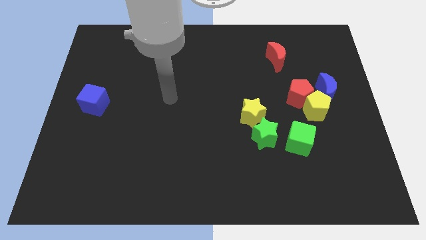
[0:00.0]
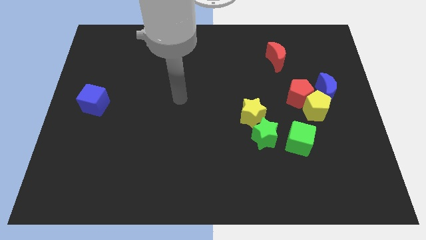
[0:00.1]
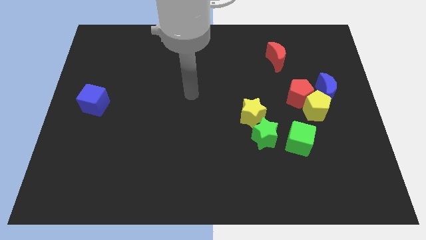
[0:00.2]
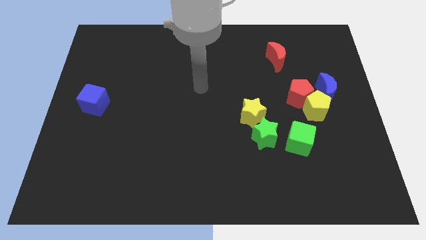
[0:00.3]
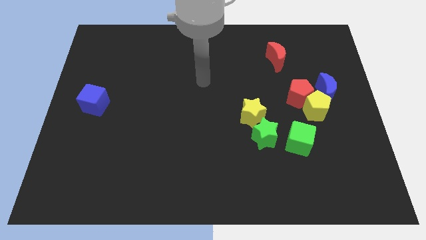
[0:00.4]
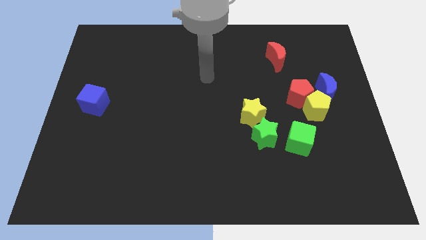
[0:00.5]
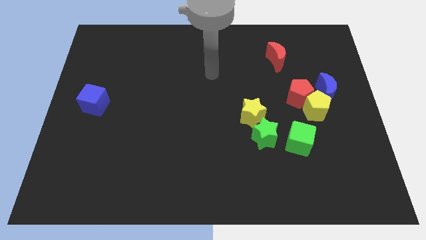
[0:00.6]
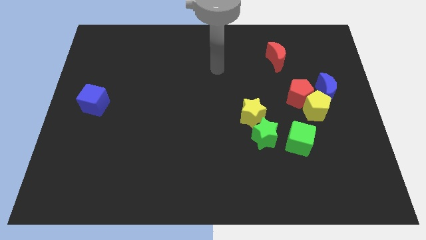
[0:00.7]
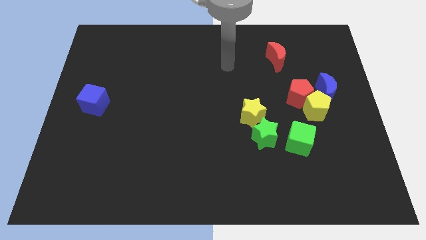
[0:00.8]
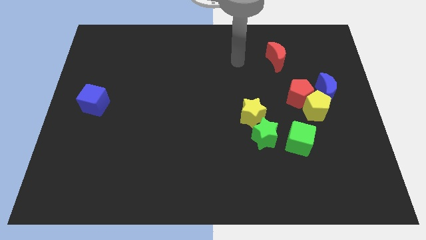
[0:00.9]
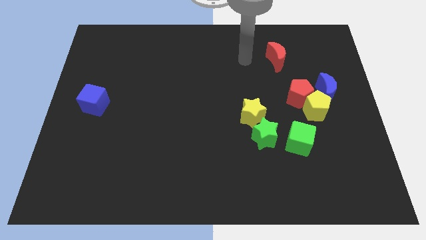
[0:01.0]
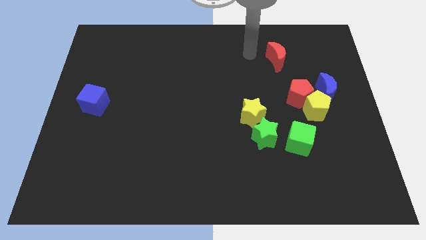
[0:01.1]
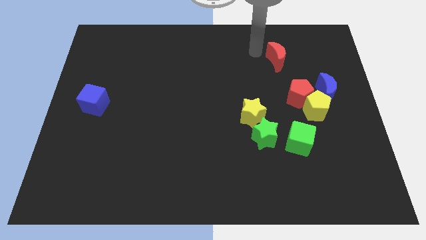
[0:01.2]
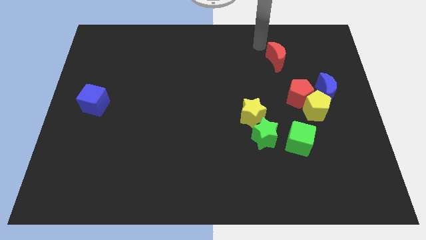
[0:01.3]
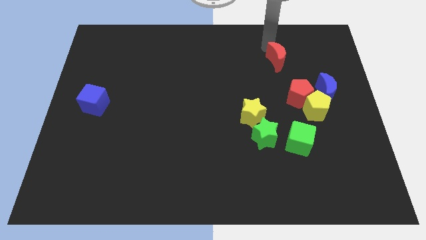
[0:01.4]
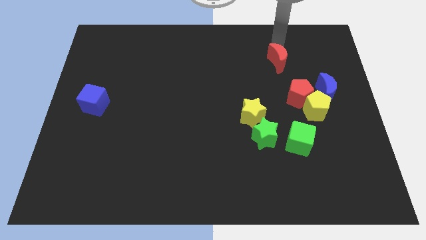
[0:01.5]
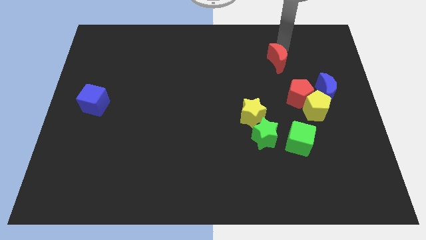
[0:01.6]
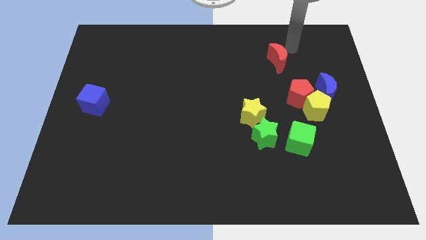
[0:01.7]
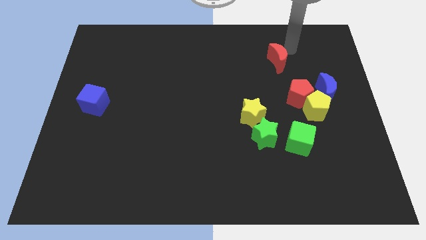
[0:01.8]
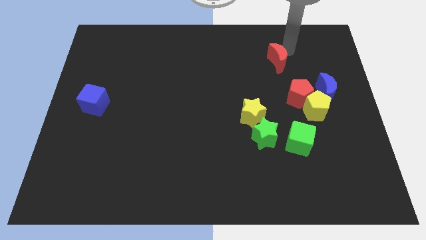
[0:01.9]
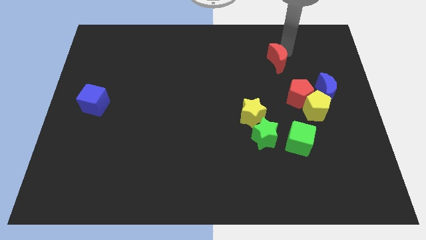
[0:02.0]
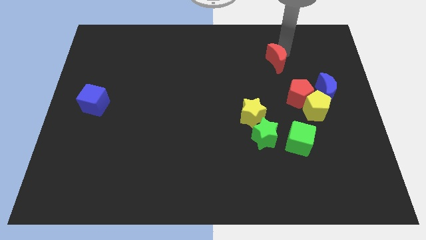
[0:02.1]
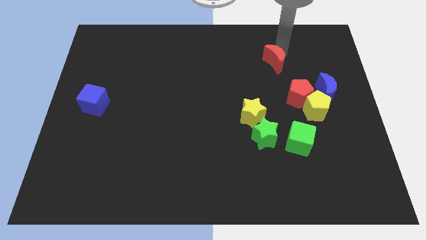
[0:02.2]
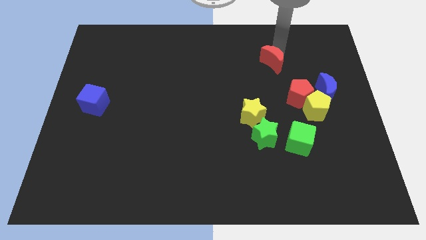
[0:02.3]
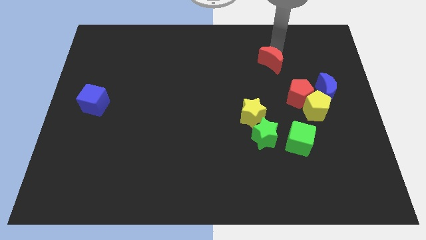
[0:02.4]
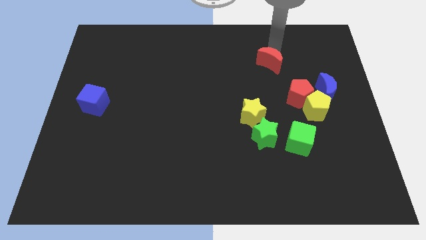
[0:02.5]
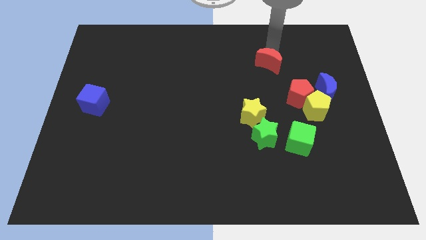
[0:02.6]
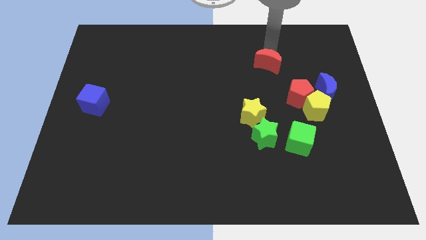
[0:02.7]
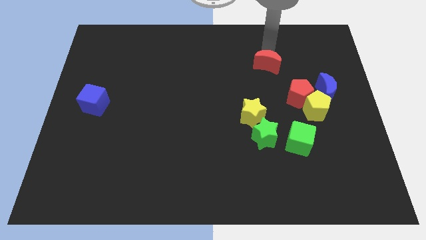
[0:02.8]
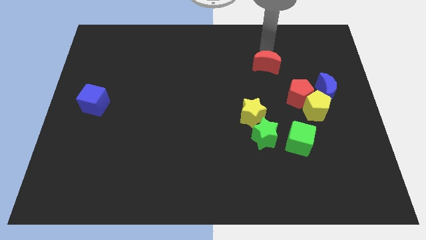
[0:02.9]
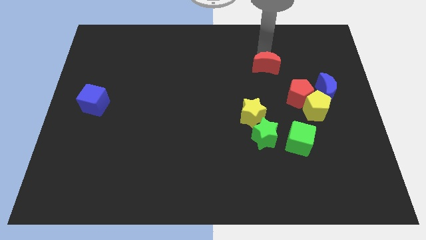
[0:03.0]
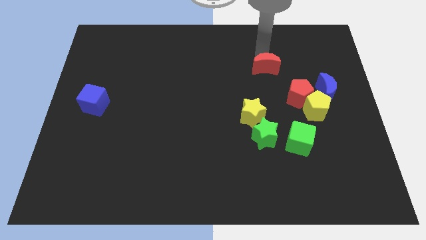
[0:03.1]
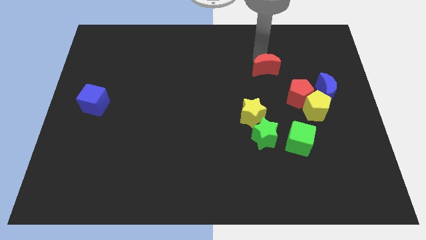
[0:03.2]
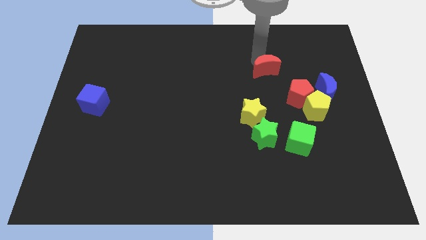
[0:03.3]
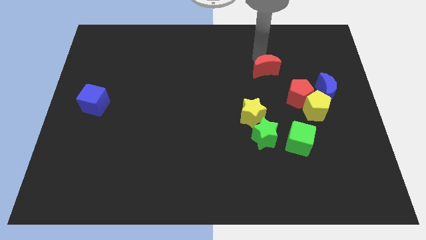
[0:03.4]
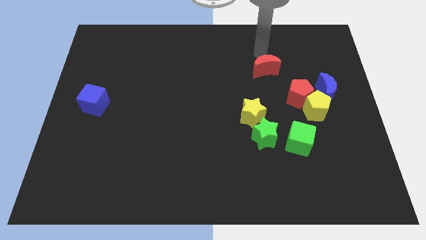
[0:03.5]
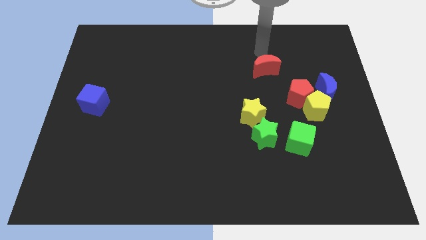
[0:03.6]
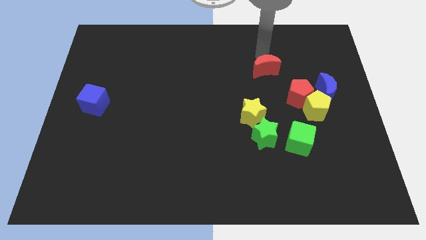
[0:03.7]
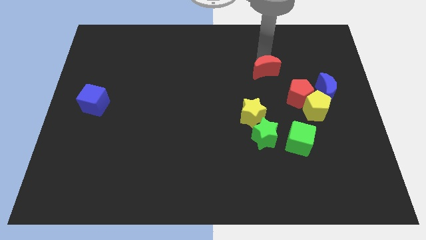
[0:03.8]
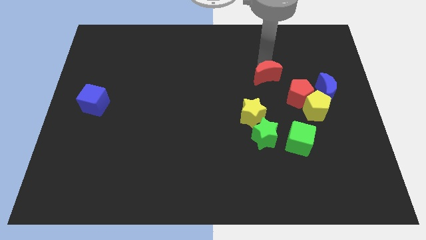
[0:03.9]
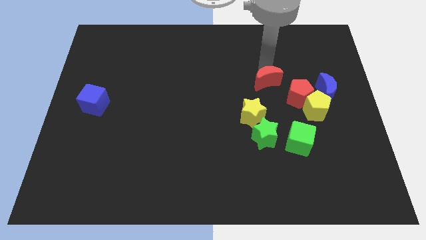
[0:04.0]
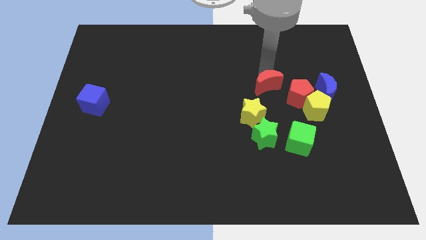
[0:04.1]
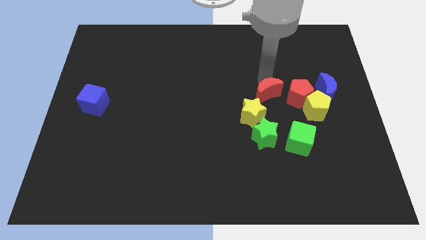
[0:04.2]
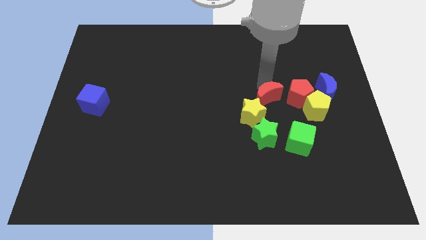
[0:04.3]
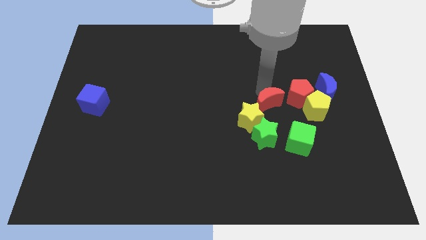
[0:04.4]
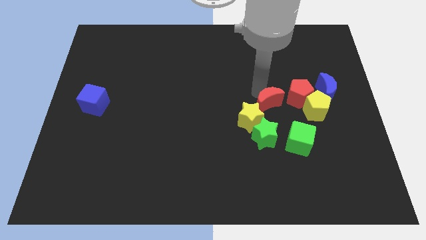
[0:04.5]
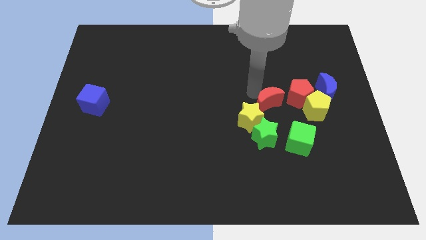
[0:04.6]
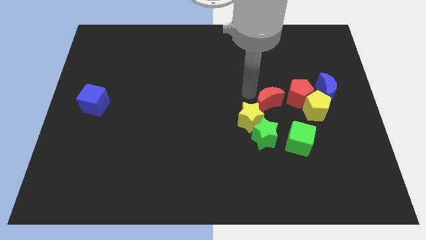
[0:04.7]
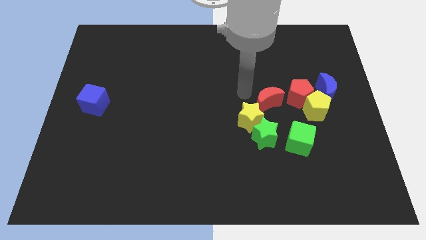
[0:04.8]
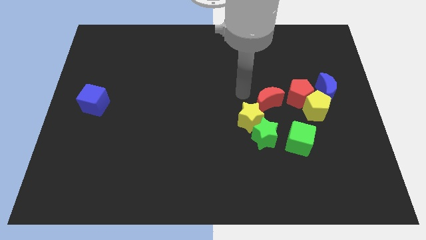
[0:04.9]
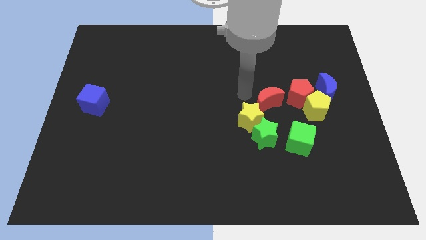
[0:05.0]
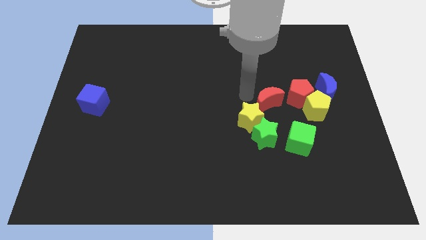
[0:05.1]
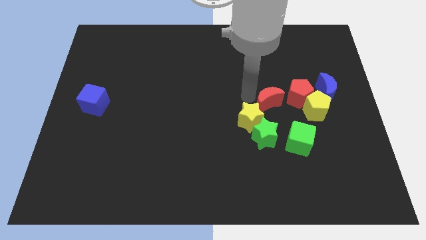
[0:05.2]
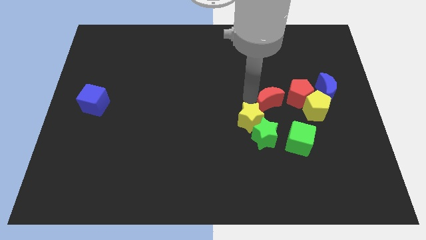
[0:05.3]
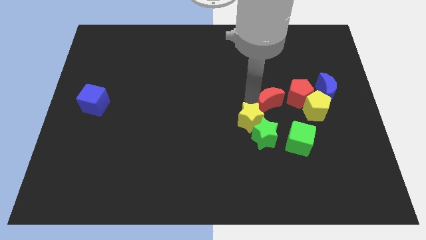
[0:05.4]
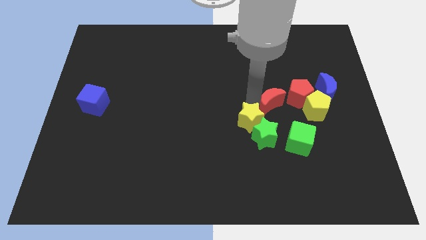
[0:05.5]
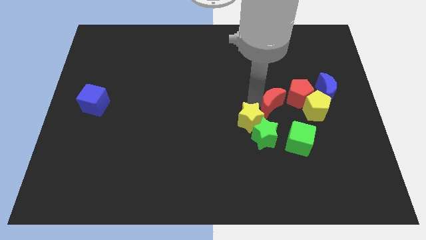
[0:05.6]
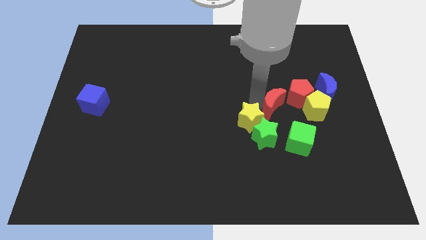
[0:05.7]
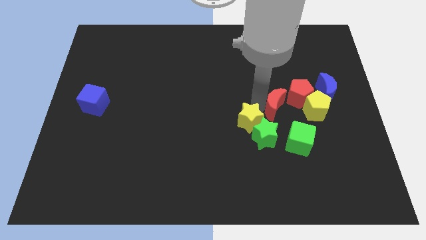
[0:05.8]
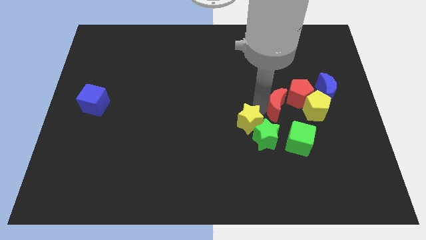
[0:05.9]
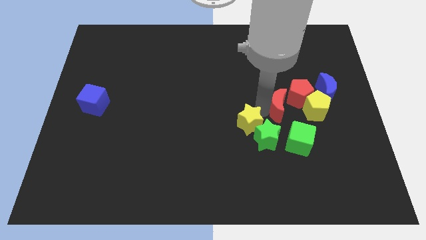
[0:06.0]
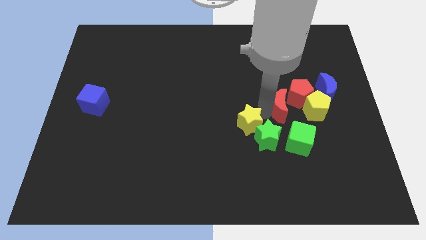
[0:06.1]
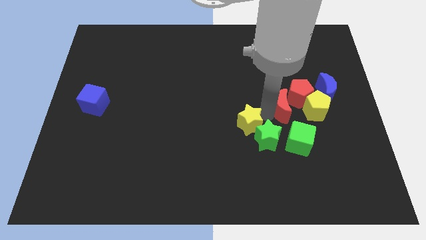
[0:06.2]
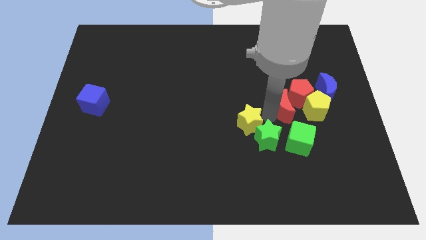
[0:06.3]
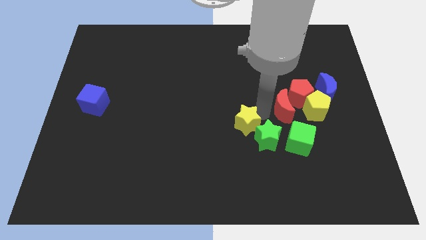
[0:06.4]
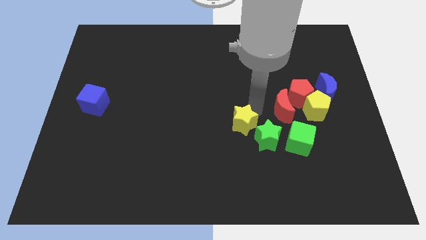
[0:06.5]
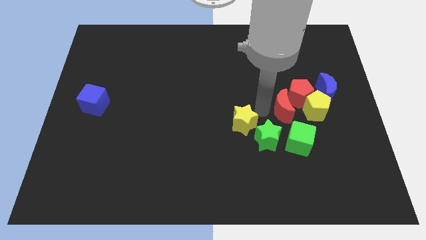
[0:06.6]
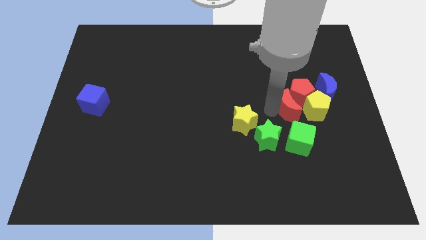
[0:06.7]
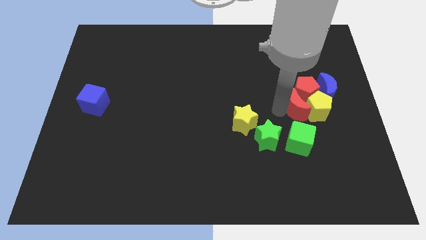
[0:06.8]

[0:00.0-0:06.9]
slide the red moon to the yellow pentagon
